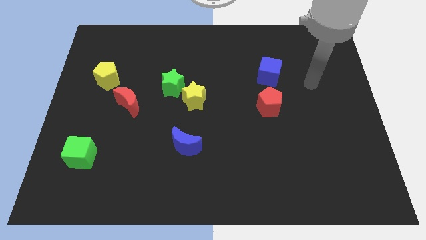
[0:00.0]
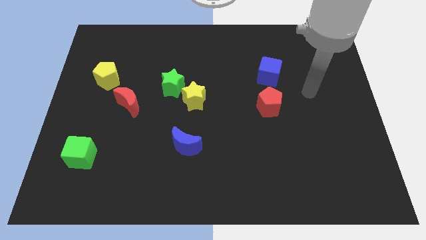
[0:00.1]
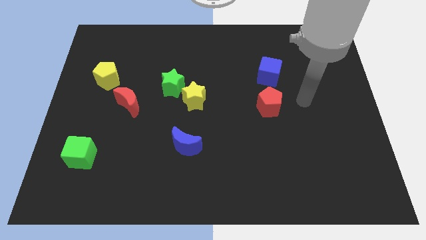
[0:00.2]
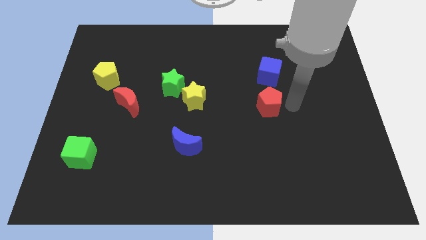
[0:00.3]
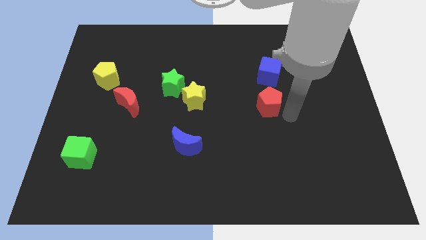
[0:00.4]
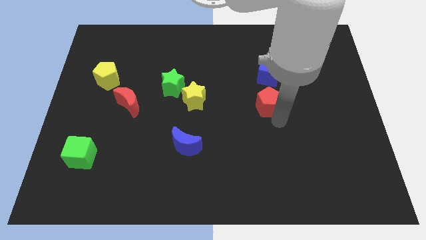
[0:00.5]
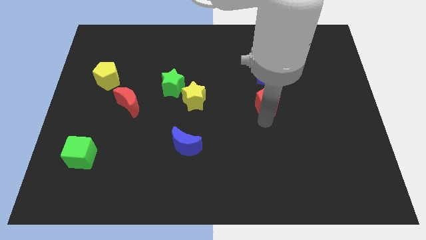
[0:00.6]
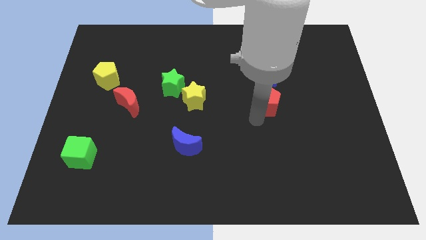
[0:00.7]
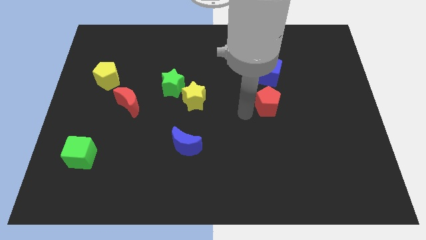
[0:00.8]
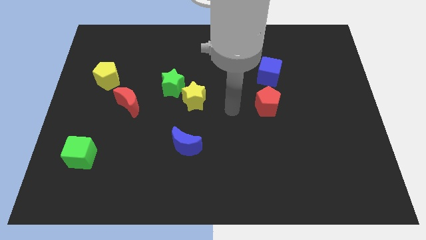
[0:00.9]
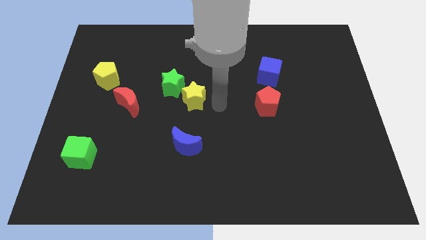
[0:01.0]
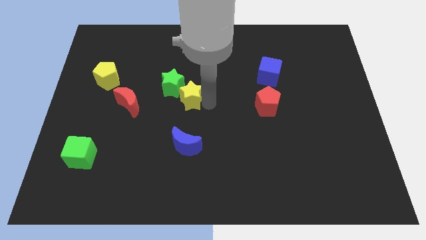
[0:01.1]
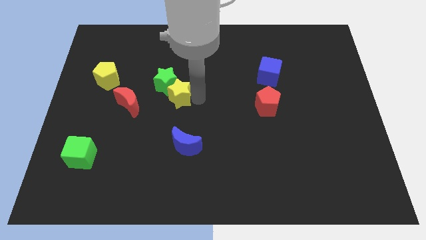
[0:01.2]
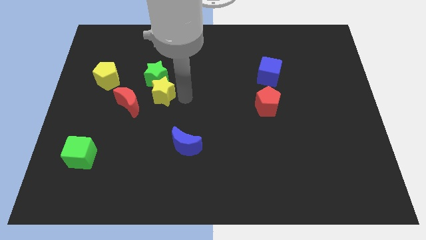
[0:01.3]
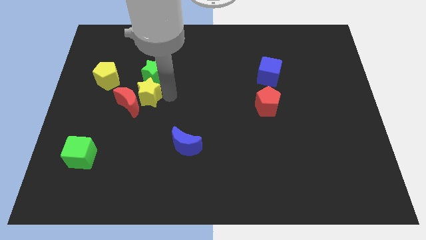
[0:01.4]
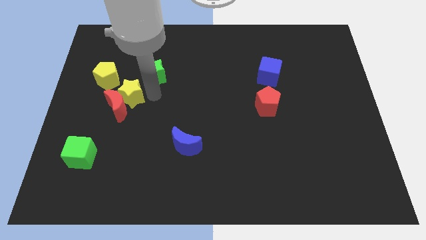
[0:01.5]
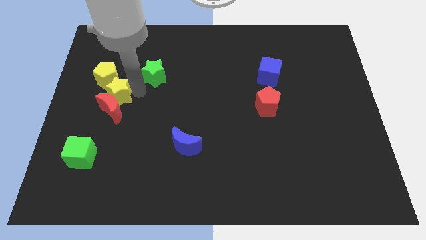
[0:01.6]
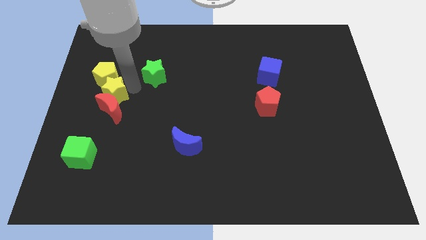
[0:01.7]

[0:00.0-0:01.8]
pull the green star apart from the yellow star

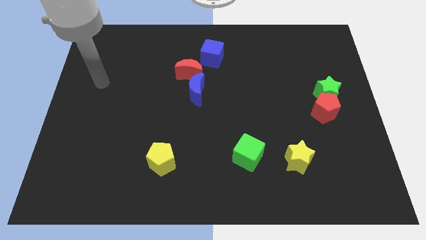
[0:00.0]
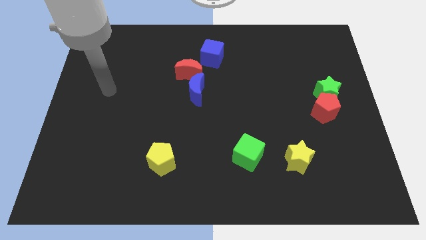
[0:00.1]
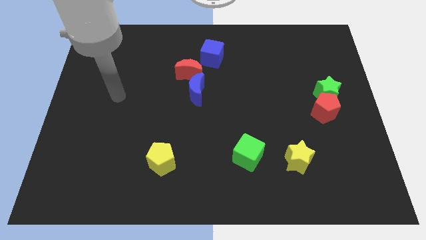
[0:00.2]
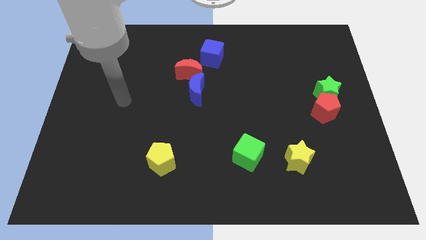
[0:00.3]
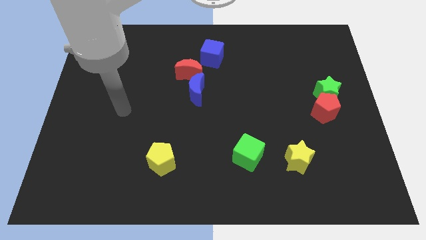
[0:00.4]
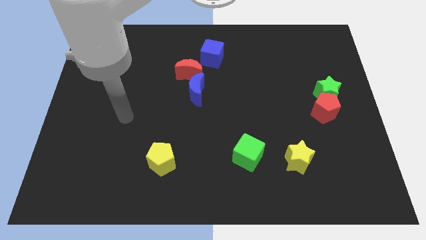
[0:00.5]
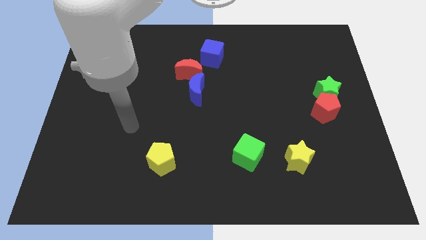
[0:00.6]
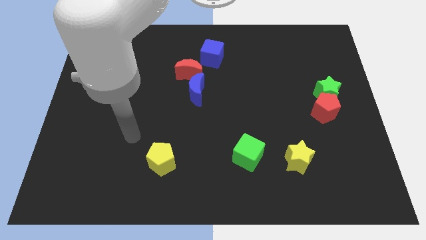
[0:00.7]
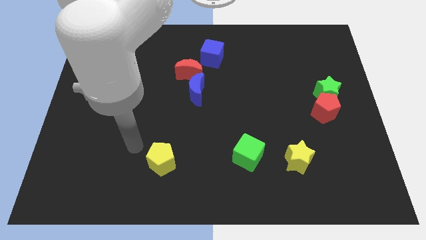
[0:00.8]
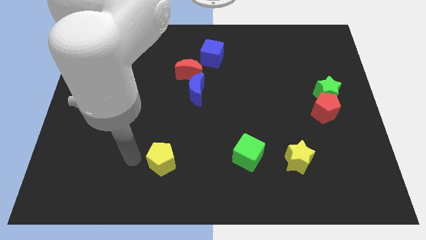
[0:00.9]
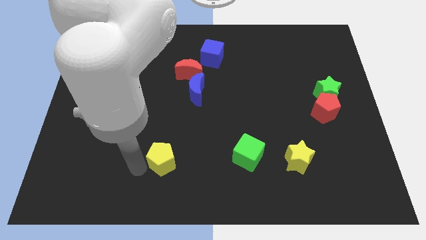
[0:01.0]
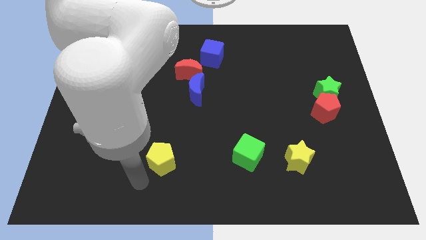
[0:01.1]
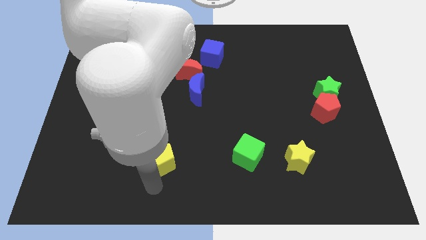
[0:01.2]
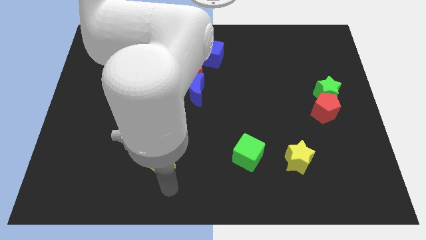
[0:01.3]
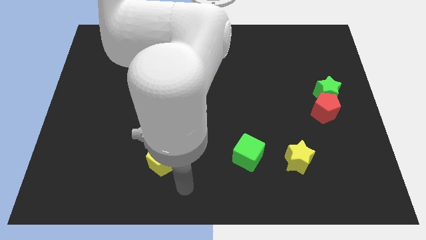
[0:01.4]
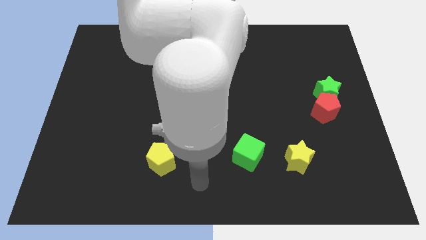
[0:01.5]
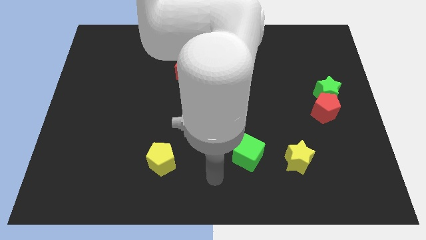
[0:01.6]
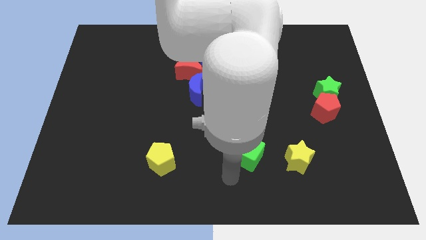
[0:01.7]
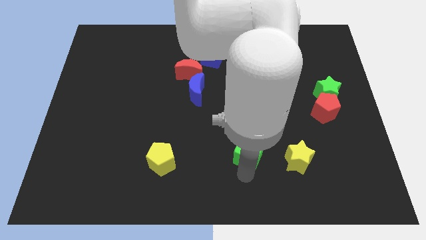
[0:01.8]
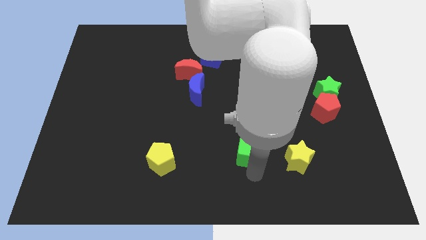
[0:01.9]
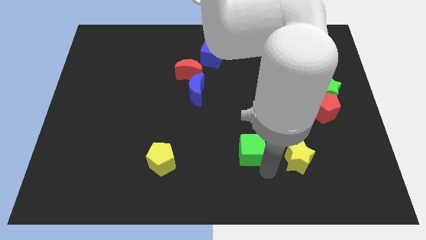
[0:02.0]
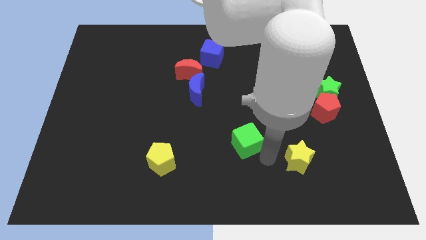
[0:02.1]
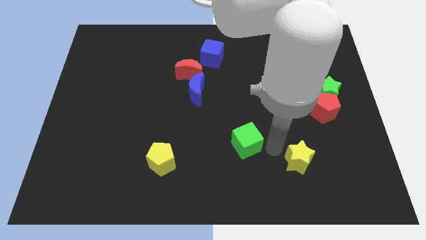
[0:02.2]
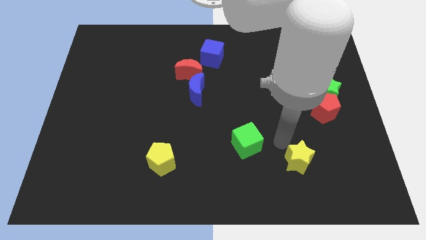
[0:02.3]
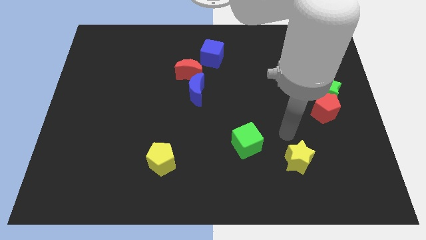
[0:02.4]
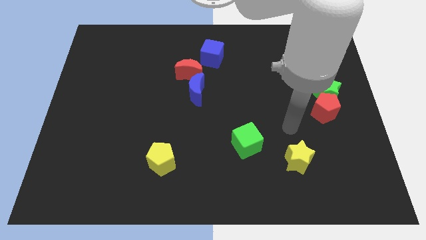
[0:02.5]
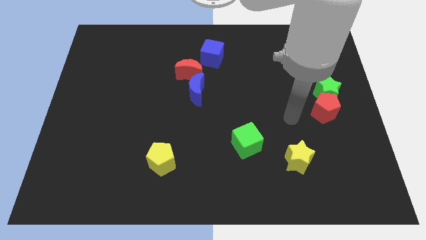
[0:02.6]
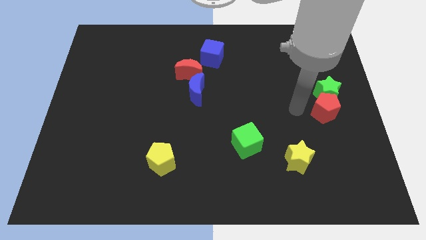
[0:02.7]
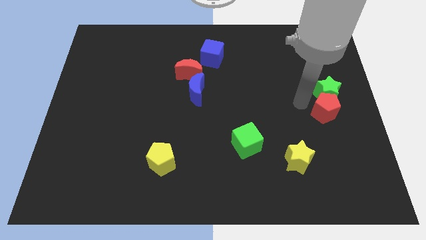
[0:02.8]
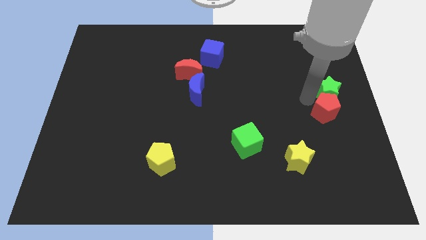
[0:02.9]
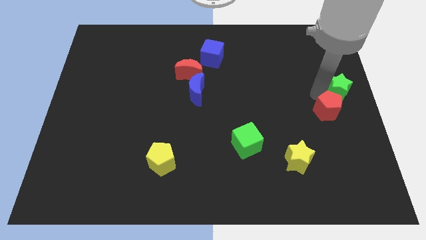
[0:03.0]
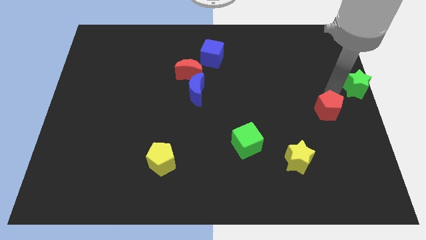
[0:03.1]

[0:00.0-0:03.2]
pull the red pentagon apart from the green star

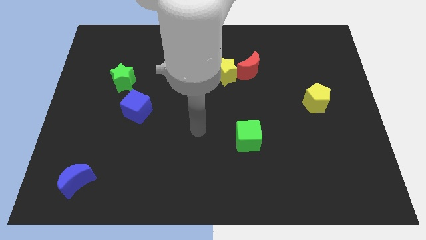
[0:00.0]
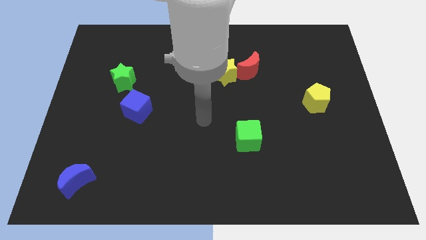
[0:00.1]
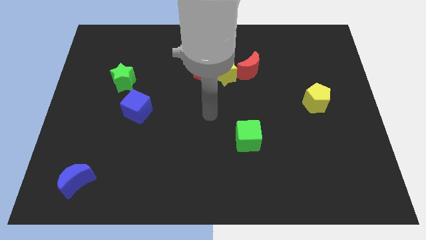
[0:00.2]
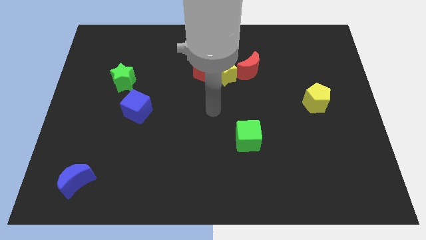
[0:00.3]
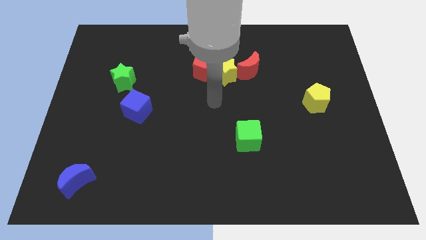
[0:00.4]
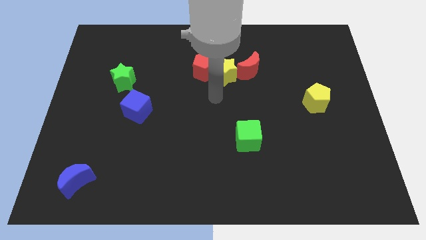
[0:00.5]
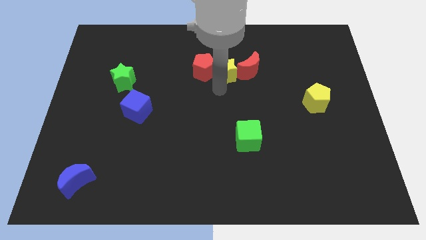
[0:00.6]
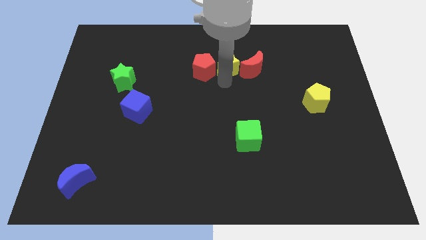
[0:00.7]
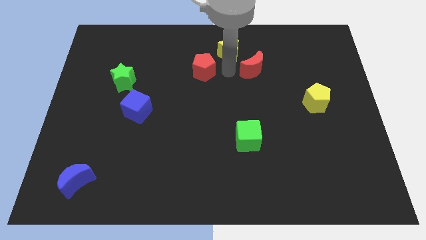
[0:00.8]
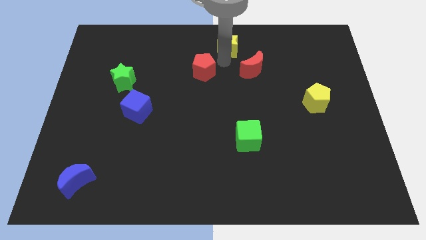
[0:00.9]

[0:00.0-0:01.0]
separate the red pentagon from the yellow star

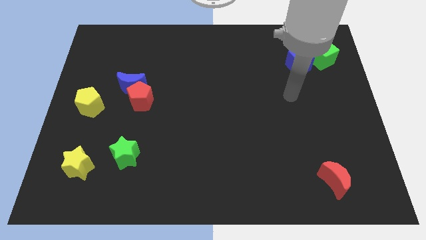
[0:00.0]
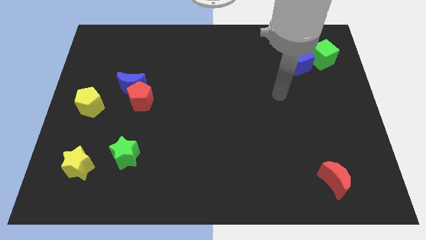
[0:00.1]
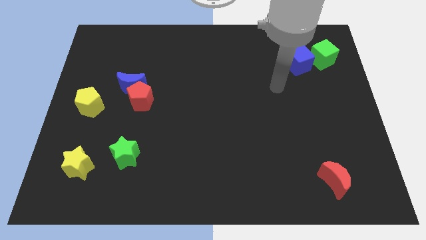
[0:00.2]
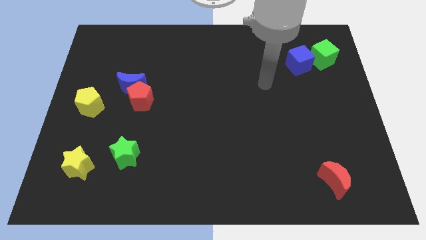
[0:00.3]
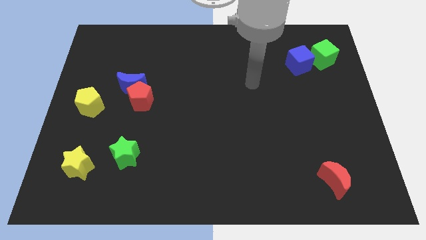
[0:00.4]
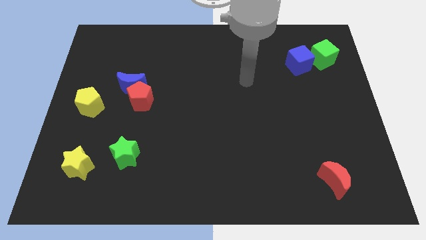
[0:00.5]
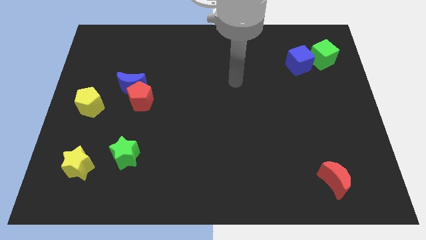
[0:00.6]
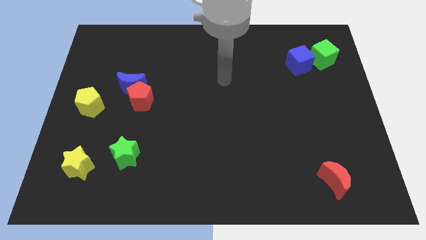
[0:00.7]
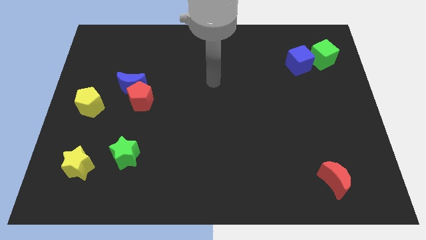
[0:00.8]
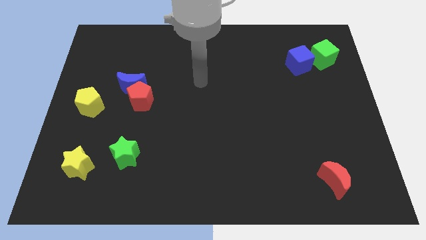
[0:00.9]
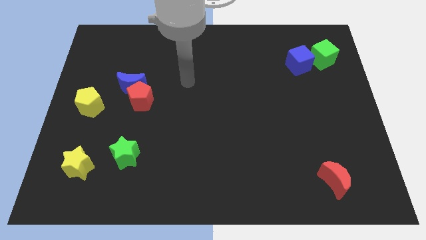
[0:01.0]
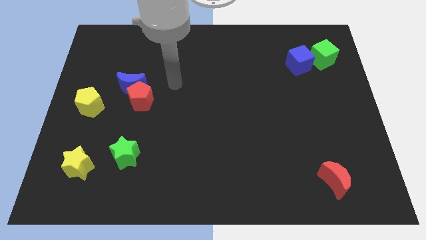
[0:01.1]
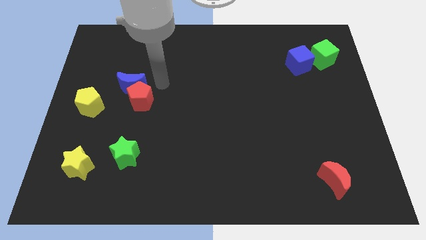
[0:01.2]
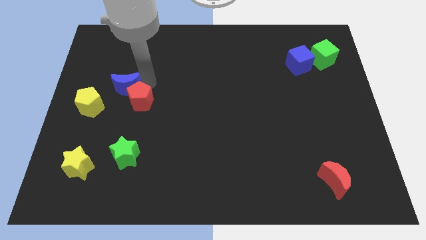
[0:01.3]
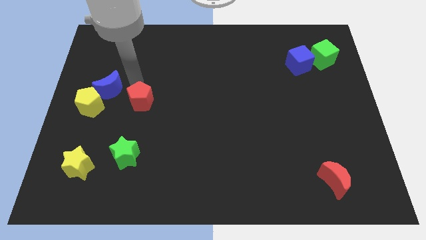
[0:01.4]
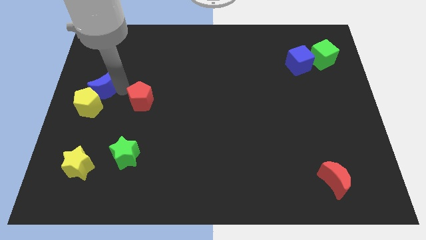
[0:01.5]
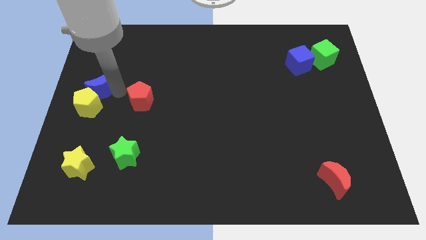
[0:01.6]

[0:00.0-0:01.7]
move the red pentagon away from the blue moon

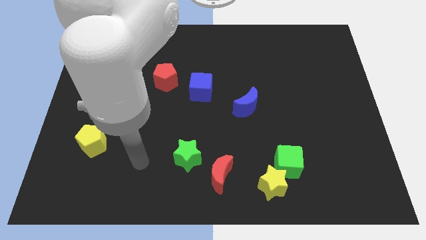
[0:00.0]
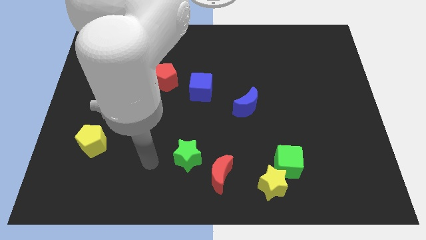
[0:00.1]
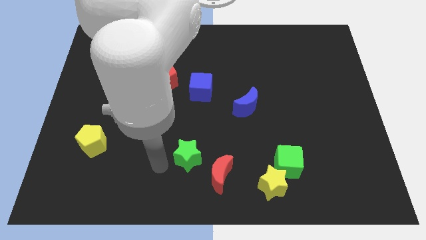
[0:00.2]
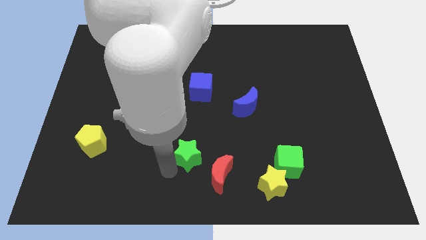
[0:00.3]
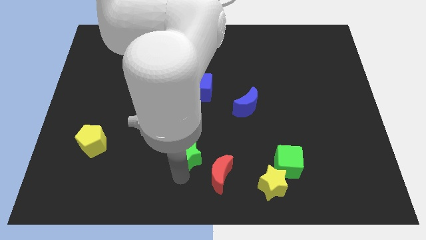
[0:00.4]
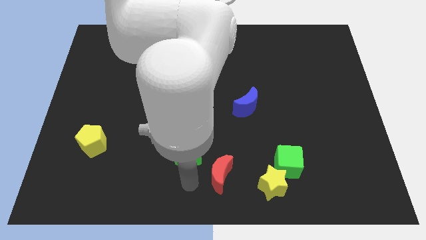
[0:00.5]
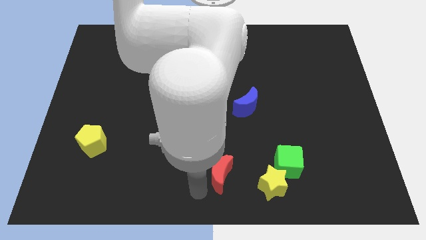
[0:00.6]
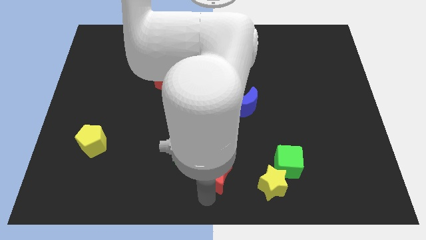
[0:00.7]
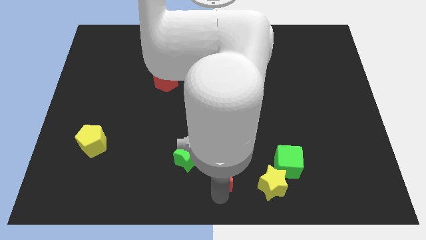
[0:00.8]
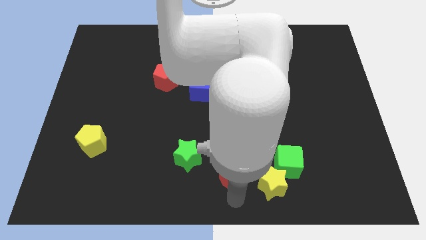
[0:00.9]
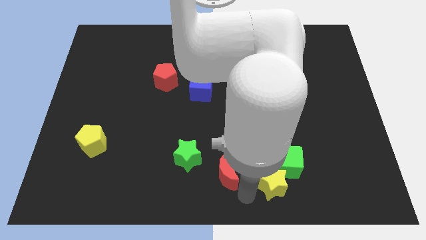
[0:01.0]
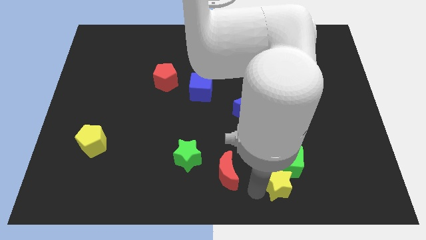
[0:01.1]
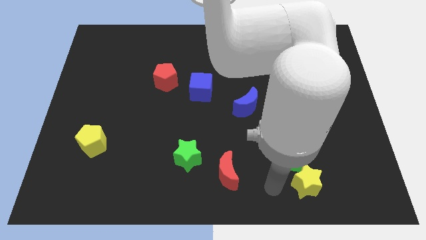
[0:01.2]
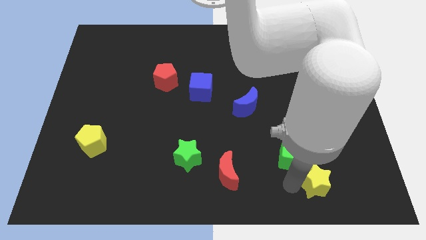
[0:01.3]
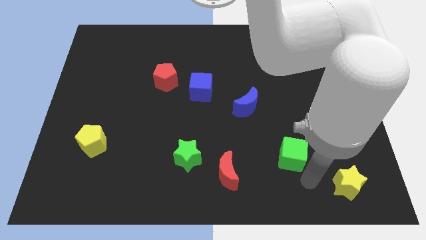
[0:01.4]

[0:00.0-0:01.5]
separate the green cube from the yellow star
